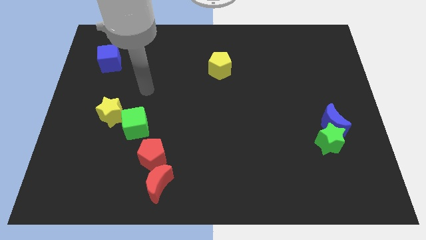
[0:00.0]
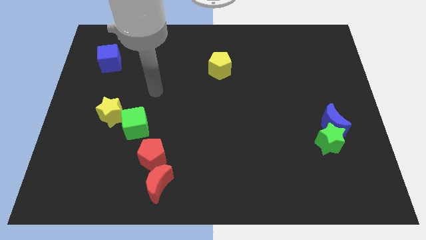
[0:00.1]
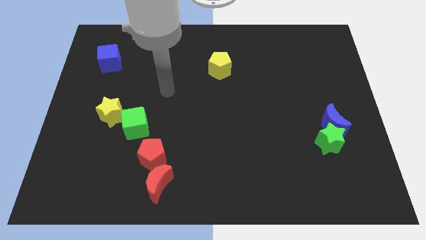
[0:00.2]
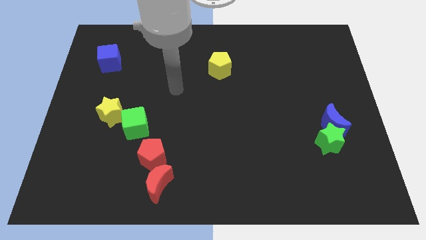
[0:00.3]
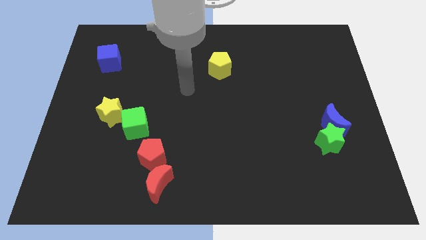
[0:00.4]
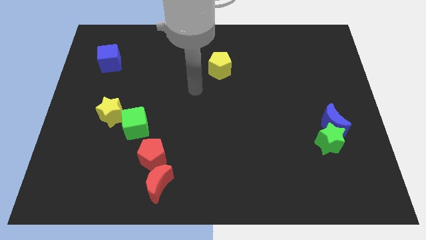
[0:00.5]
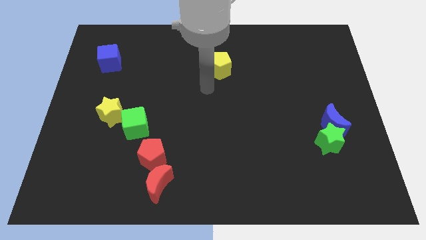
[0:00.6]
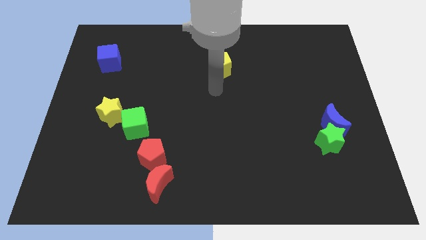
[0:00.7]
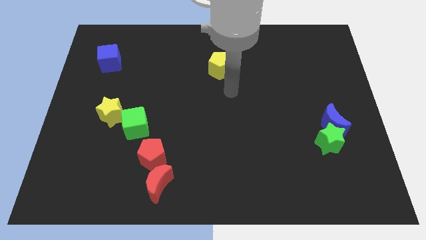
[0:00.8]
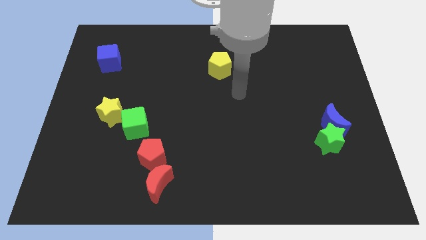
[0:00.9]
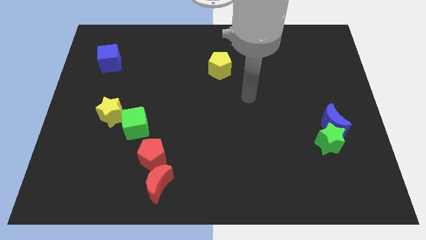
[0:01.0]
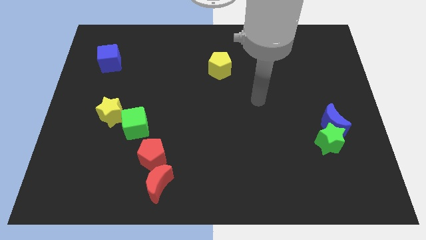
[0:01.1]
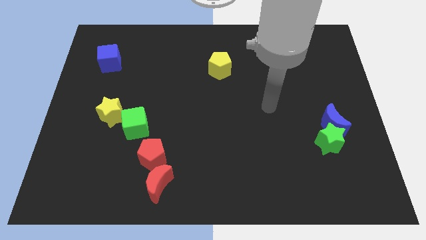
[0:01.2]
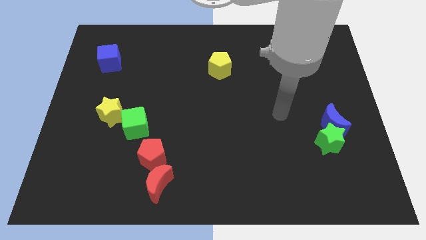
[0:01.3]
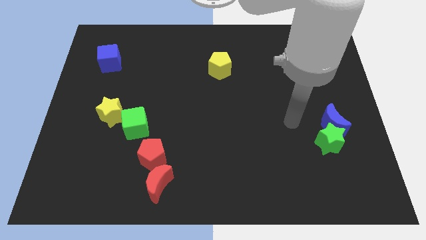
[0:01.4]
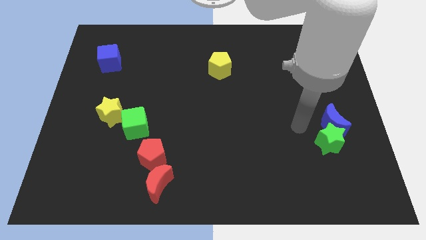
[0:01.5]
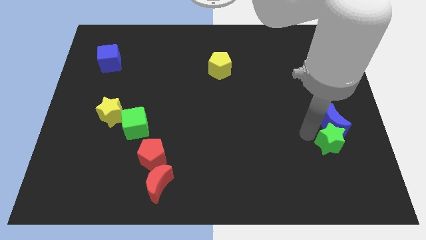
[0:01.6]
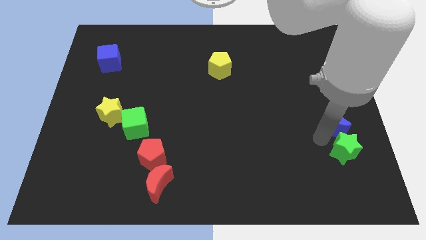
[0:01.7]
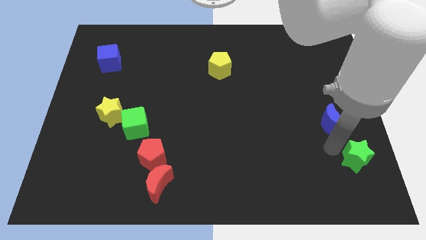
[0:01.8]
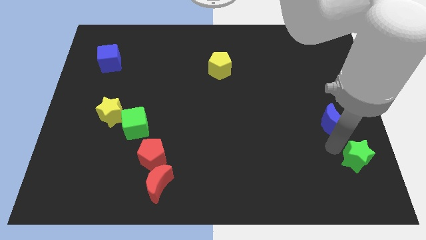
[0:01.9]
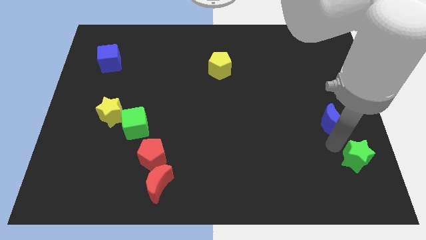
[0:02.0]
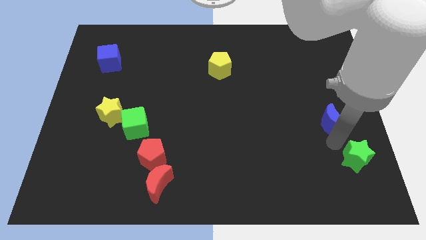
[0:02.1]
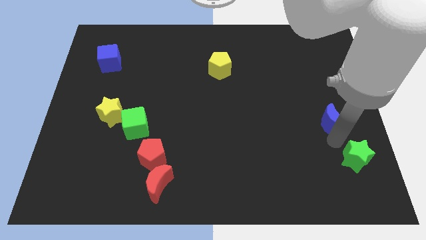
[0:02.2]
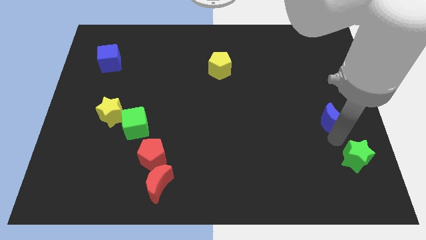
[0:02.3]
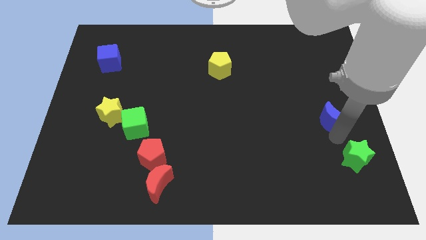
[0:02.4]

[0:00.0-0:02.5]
separate the blue moon from the green star

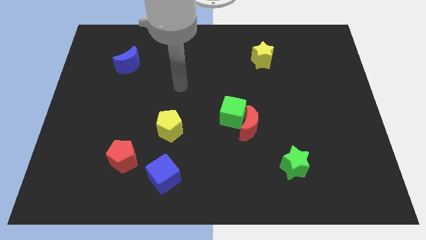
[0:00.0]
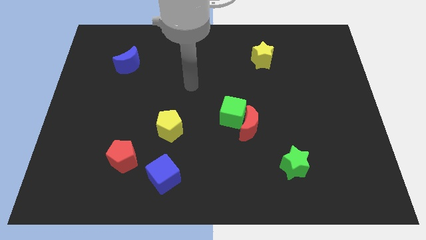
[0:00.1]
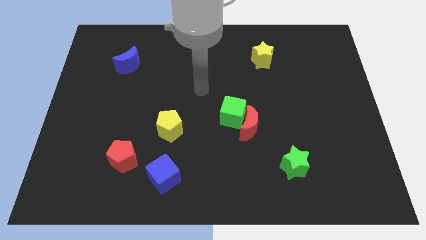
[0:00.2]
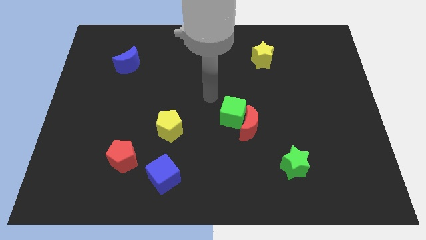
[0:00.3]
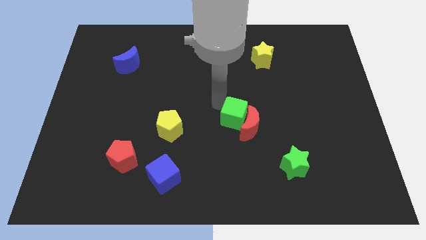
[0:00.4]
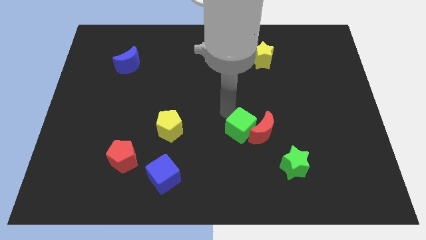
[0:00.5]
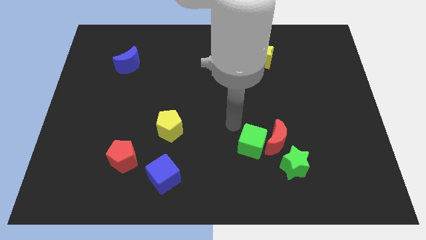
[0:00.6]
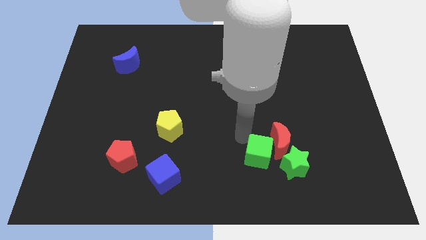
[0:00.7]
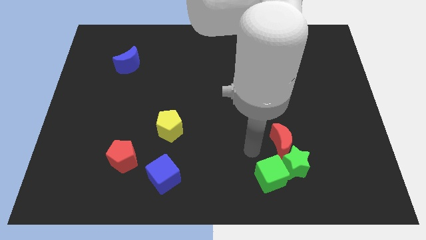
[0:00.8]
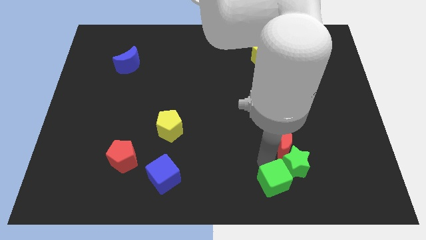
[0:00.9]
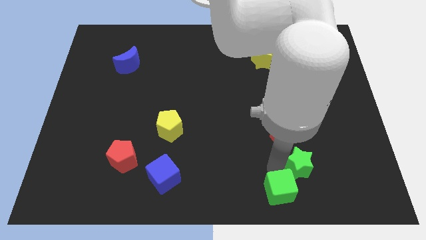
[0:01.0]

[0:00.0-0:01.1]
move the red moon away from the green cube

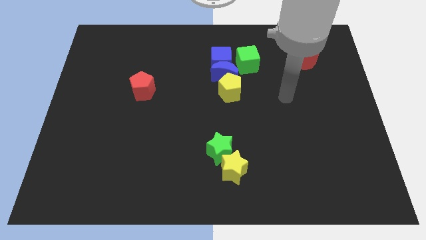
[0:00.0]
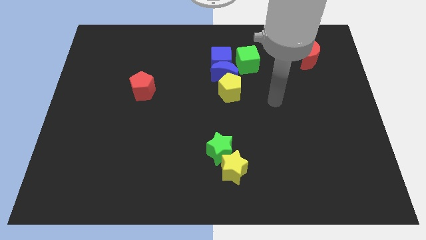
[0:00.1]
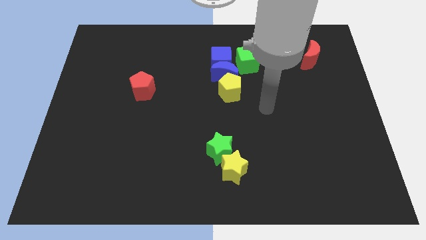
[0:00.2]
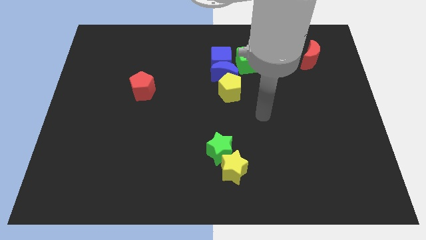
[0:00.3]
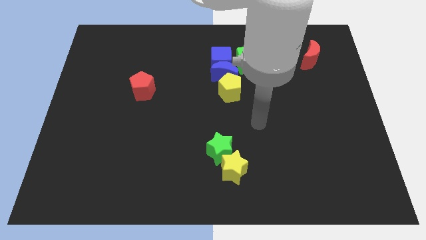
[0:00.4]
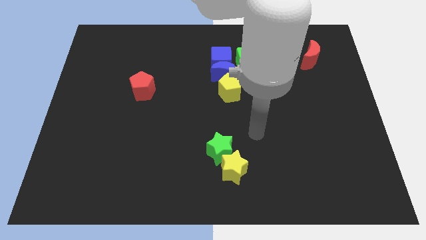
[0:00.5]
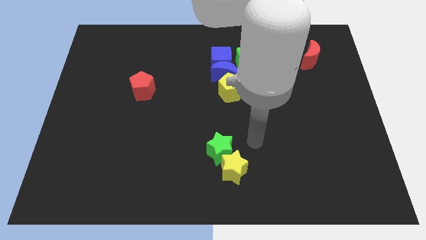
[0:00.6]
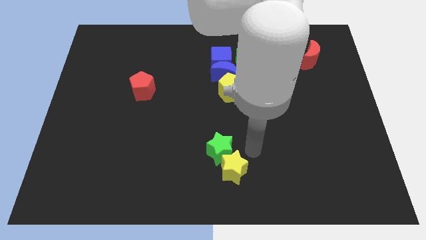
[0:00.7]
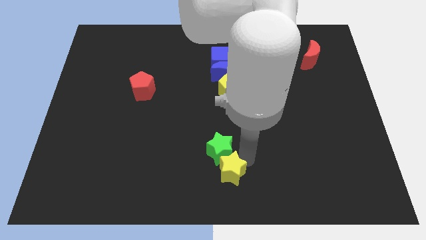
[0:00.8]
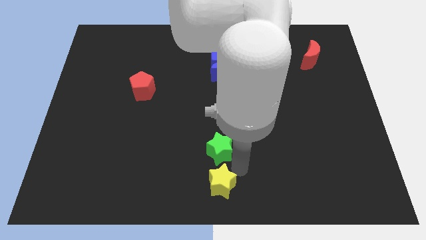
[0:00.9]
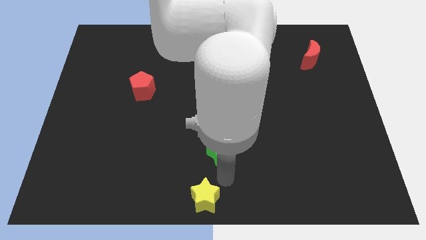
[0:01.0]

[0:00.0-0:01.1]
move the green star away from the yellow star

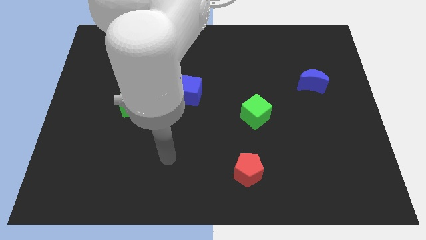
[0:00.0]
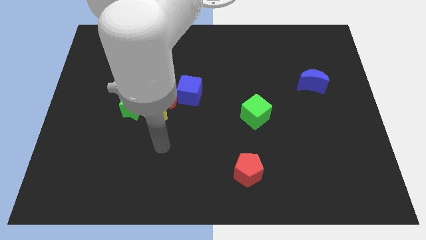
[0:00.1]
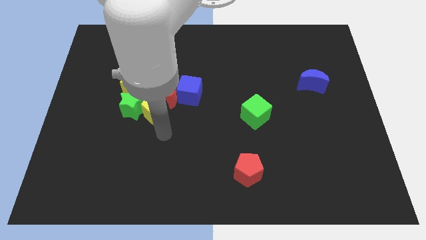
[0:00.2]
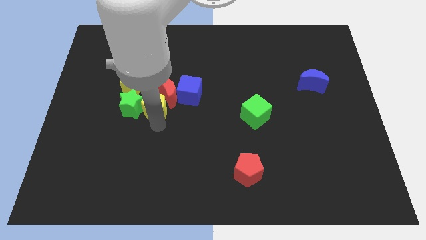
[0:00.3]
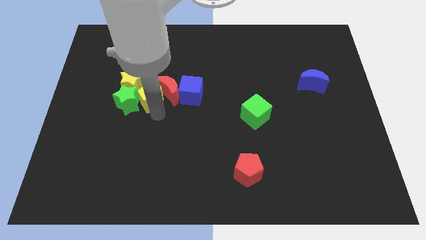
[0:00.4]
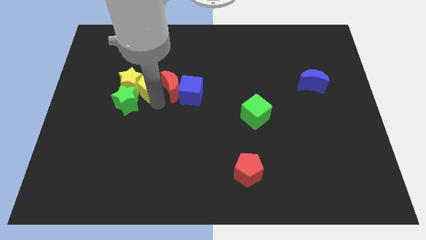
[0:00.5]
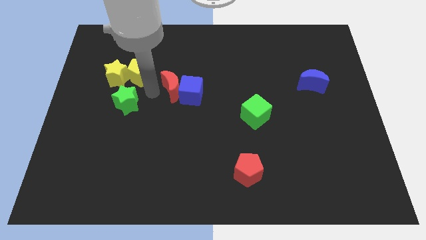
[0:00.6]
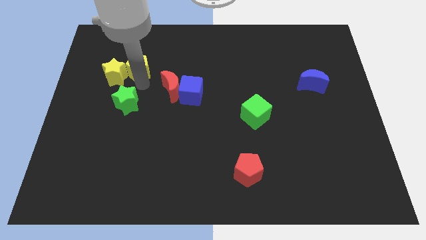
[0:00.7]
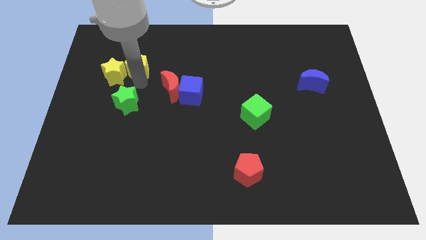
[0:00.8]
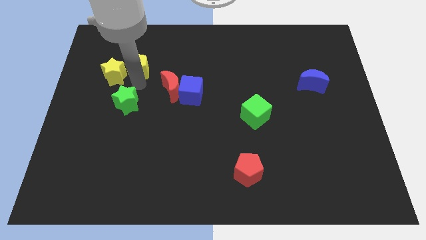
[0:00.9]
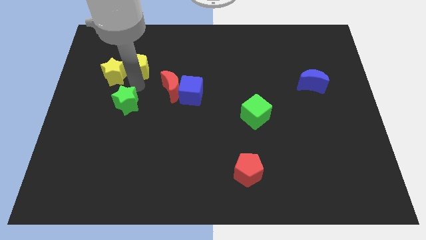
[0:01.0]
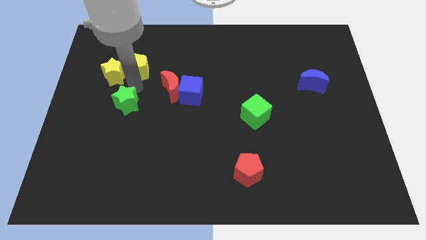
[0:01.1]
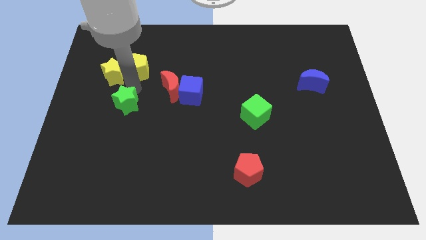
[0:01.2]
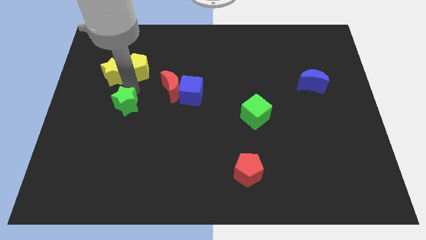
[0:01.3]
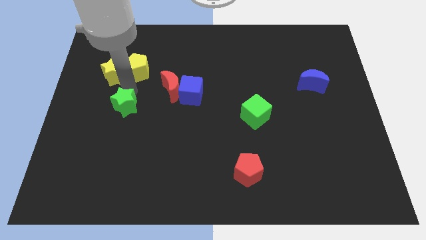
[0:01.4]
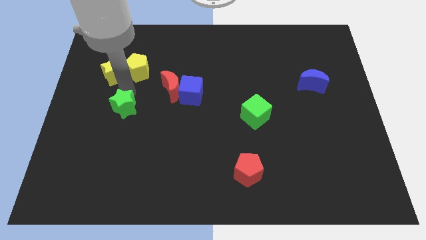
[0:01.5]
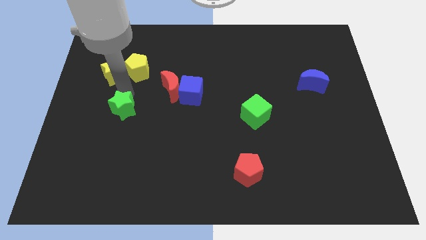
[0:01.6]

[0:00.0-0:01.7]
move the green star away from the yellow pentagon, yellow star, and red moon

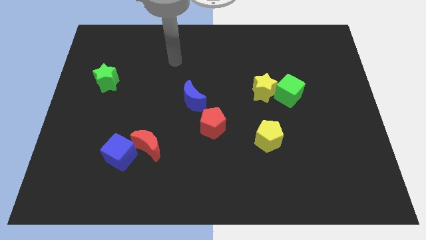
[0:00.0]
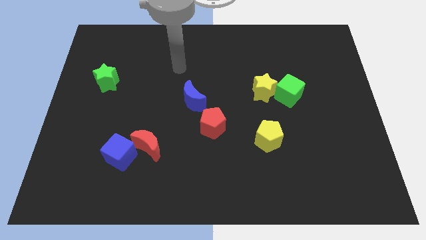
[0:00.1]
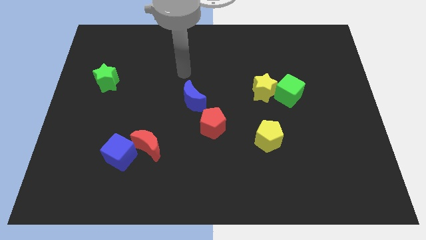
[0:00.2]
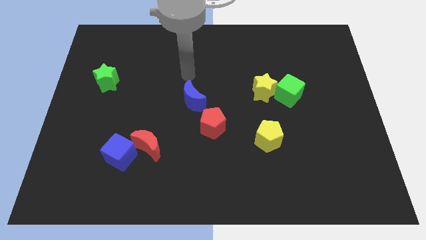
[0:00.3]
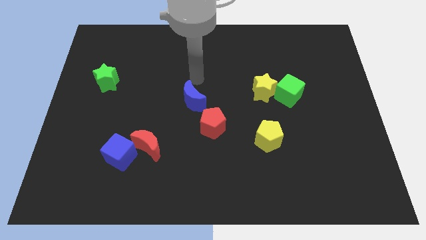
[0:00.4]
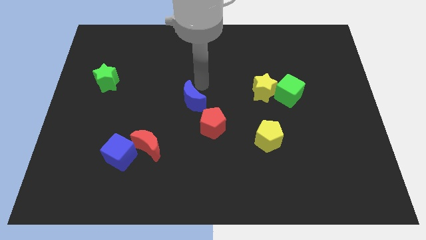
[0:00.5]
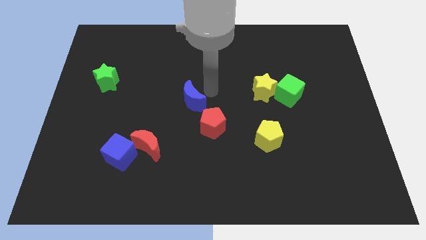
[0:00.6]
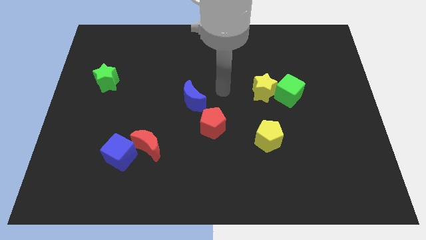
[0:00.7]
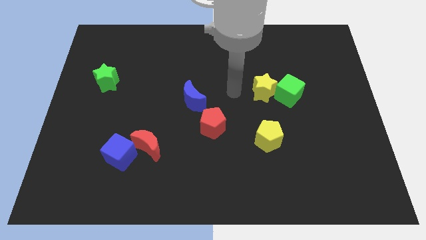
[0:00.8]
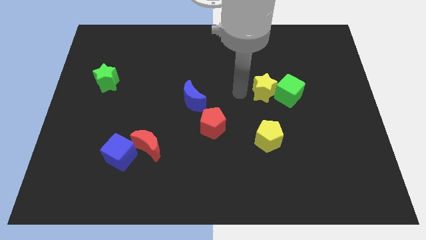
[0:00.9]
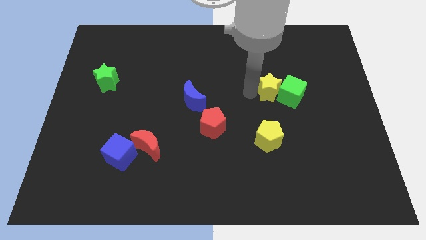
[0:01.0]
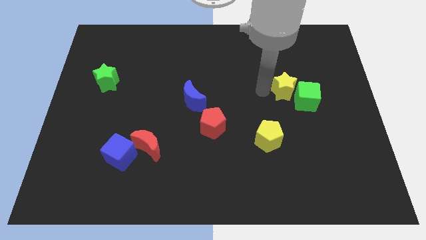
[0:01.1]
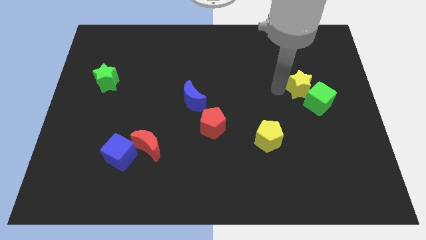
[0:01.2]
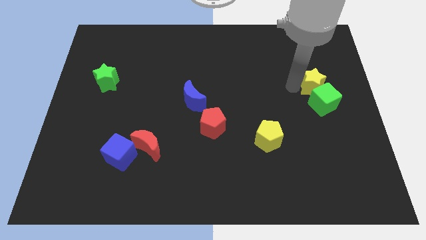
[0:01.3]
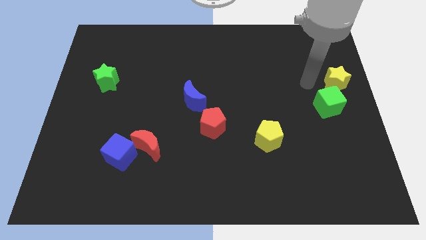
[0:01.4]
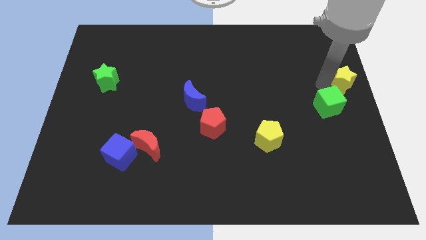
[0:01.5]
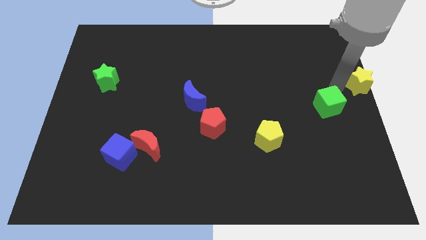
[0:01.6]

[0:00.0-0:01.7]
move the green cube away from the yellow star

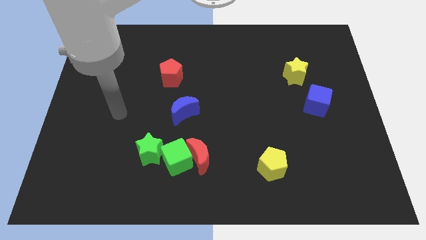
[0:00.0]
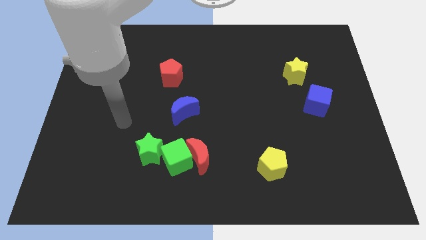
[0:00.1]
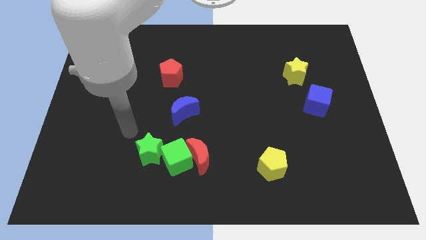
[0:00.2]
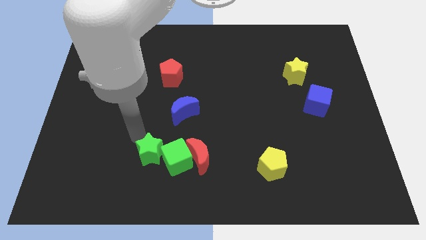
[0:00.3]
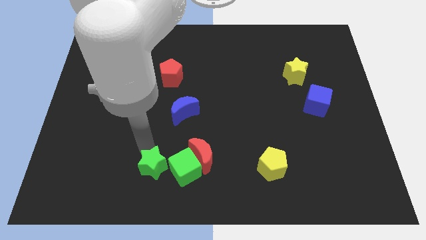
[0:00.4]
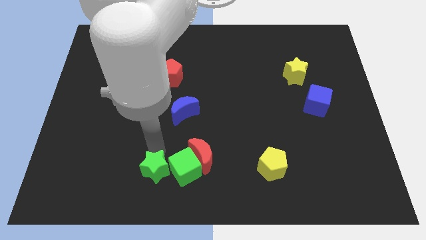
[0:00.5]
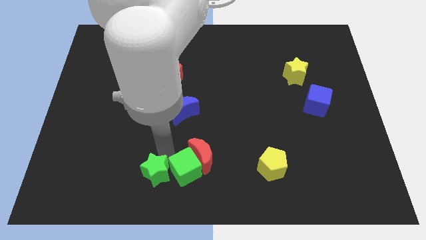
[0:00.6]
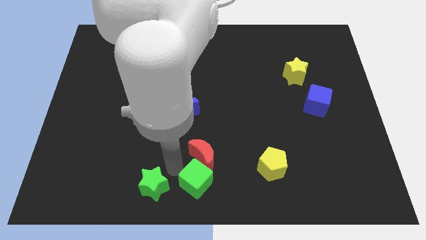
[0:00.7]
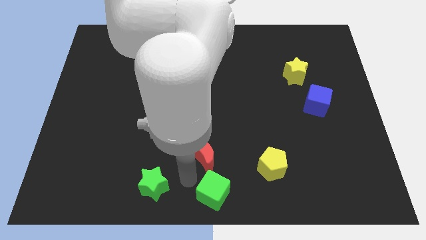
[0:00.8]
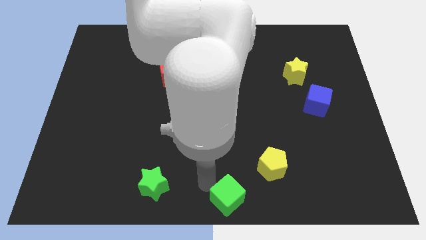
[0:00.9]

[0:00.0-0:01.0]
pull the red moon apart from the green cube

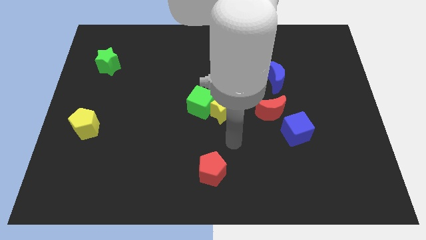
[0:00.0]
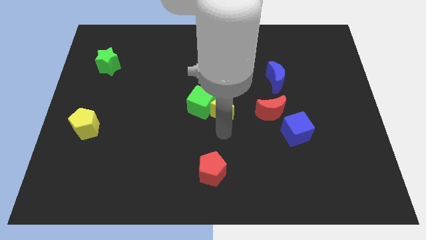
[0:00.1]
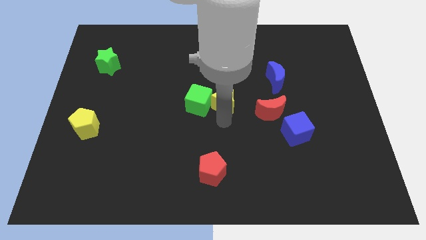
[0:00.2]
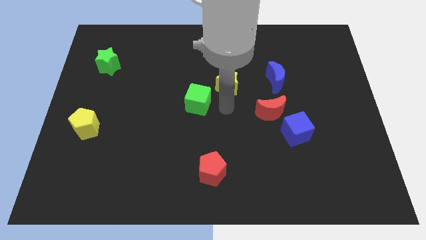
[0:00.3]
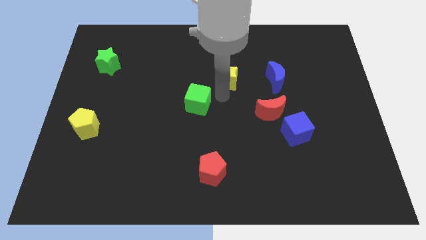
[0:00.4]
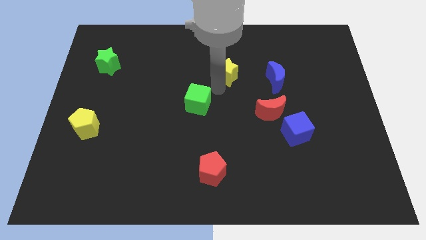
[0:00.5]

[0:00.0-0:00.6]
pull the green cube apart from the yellow star
